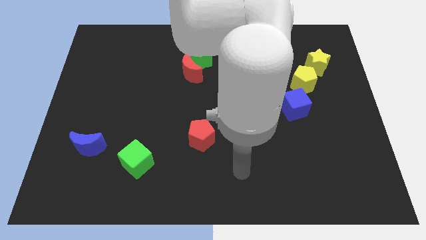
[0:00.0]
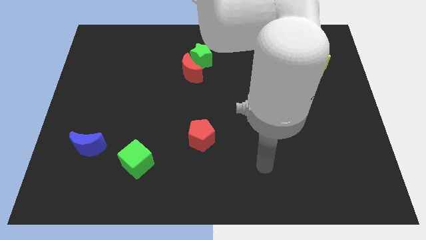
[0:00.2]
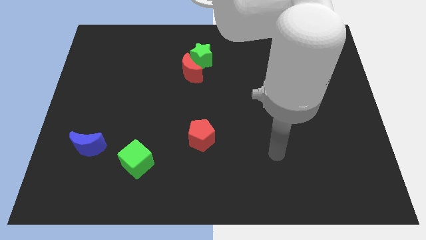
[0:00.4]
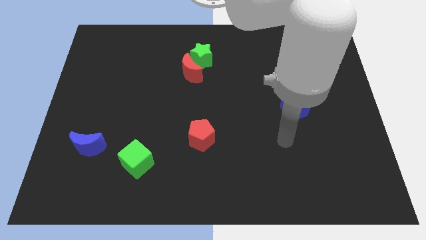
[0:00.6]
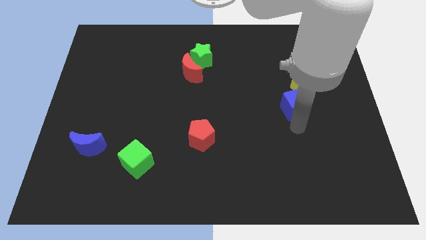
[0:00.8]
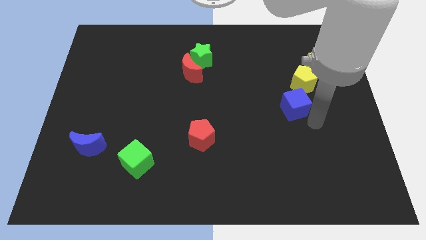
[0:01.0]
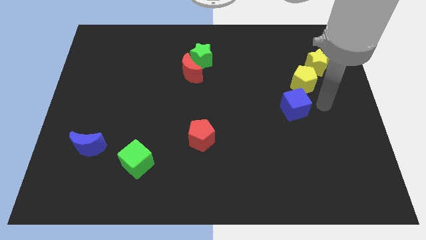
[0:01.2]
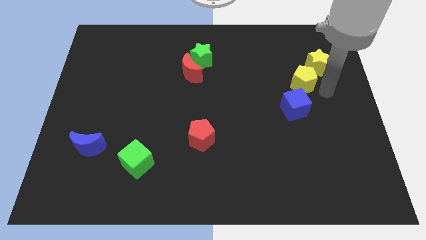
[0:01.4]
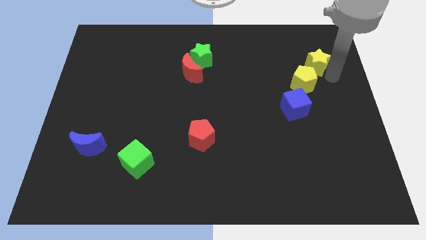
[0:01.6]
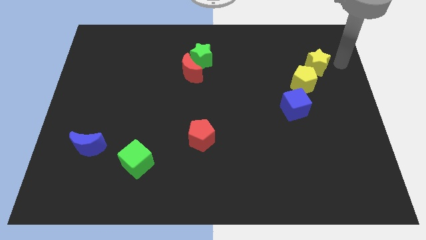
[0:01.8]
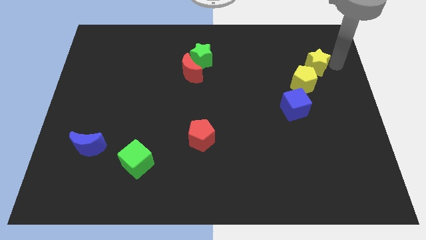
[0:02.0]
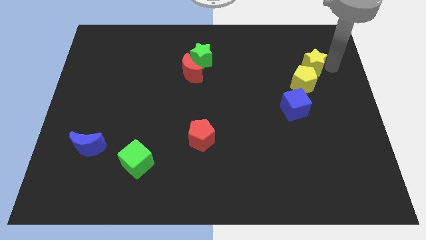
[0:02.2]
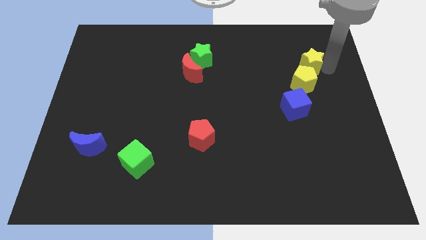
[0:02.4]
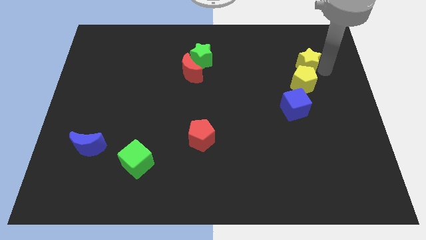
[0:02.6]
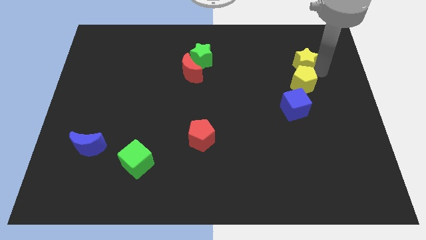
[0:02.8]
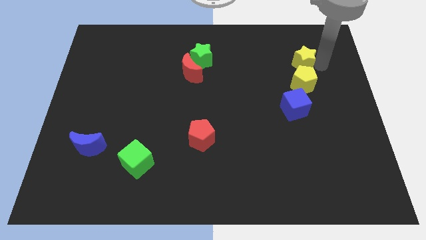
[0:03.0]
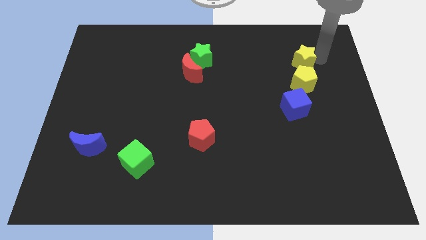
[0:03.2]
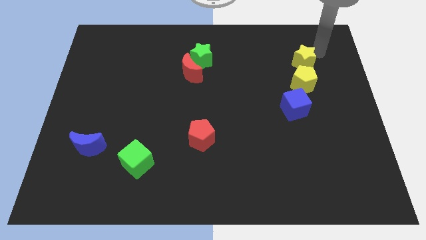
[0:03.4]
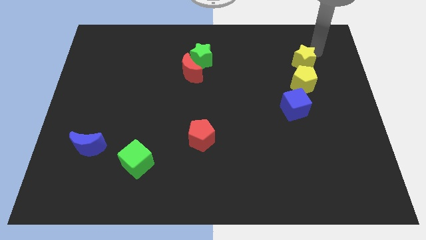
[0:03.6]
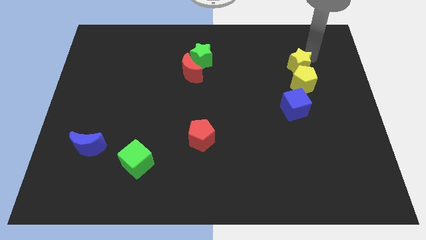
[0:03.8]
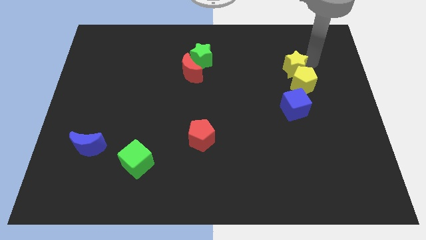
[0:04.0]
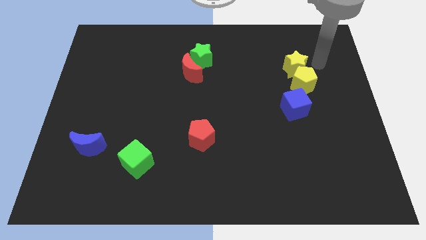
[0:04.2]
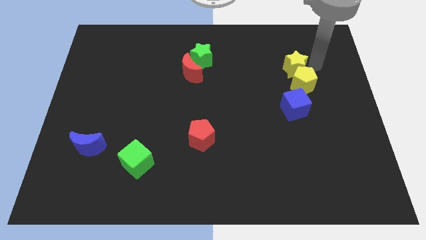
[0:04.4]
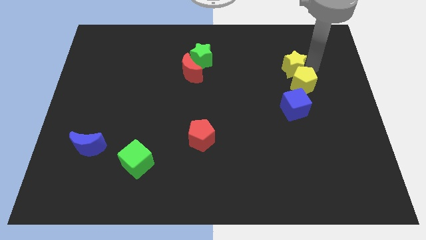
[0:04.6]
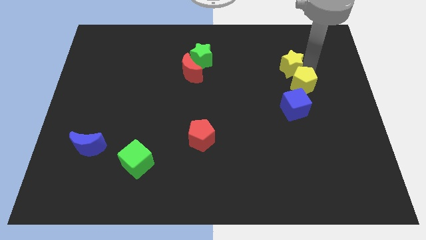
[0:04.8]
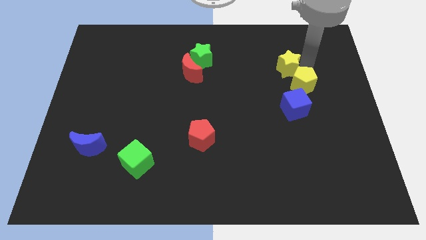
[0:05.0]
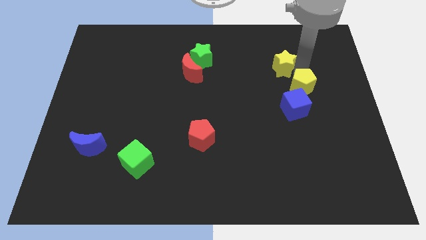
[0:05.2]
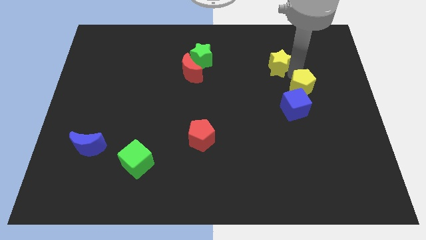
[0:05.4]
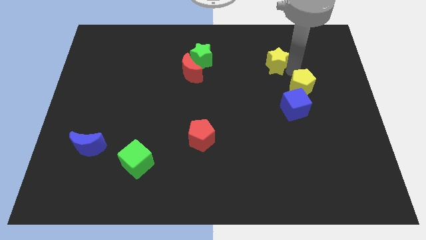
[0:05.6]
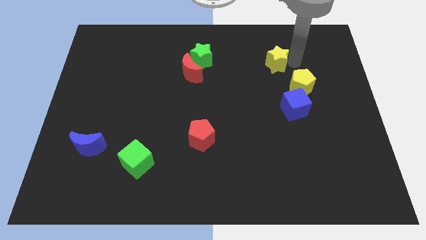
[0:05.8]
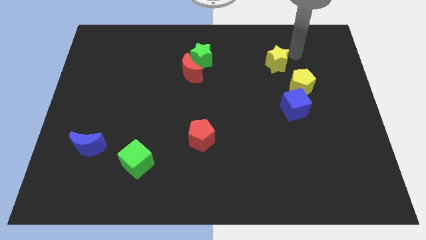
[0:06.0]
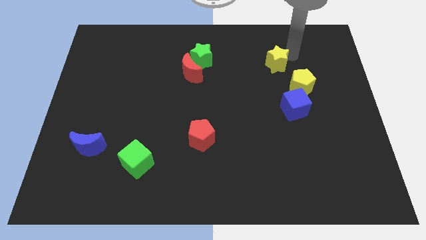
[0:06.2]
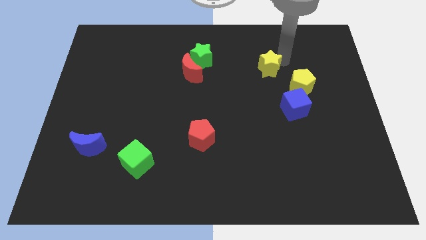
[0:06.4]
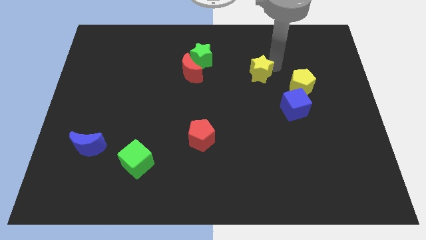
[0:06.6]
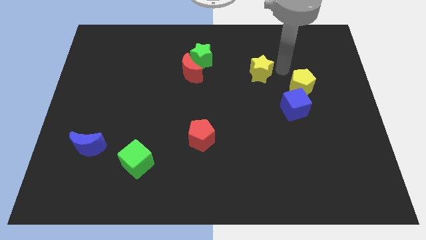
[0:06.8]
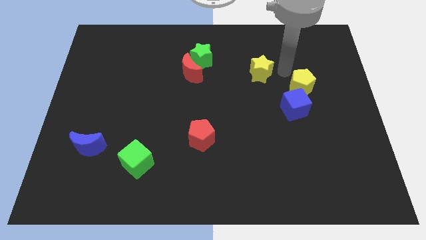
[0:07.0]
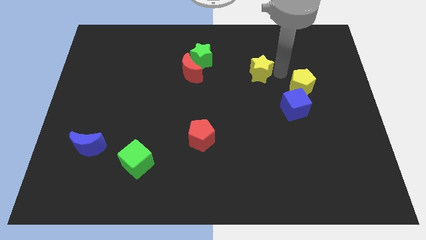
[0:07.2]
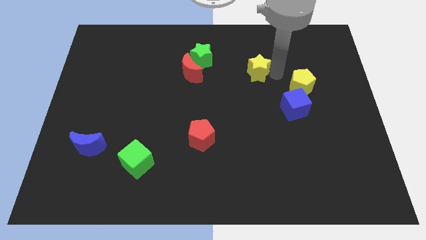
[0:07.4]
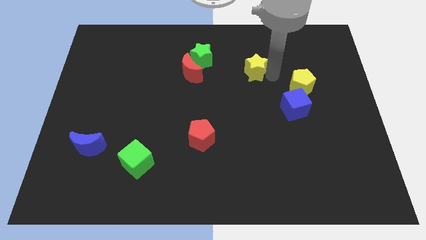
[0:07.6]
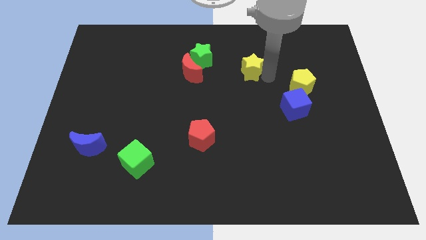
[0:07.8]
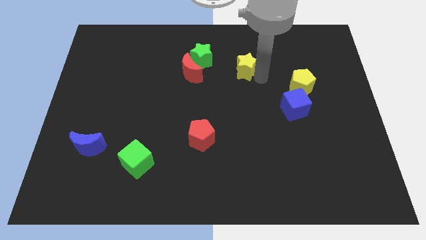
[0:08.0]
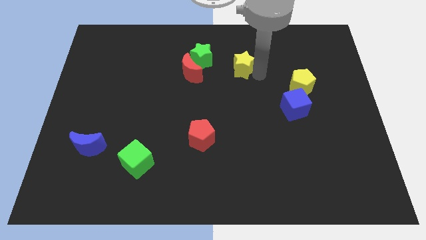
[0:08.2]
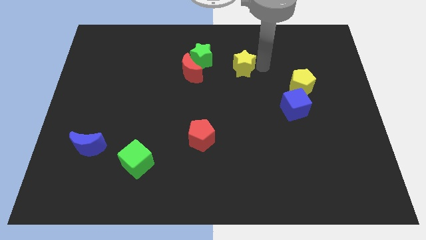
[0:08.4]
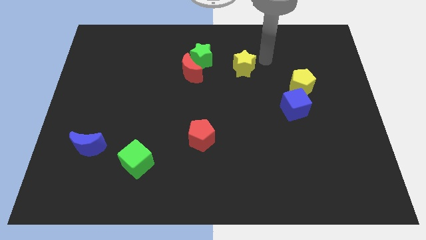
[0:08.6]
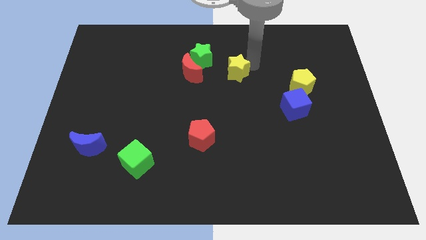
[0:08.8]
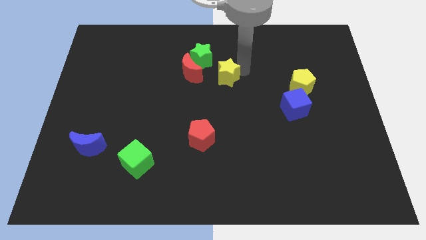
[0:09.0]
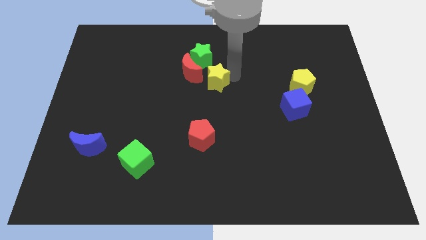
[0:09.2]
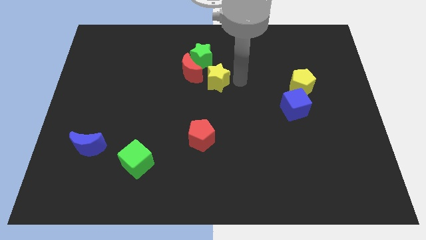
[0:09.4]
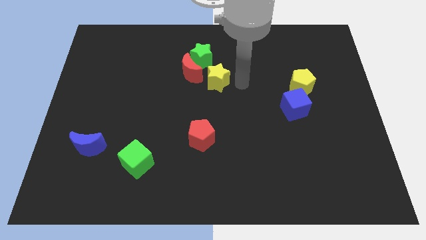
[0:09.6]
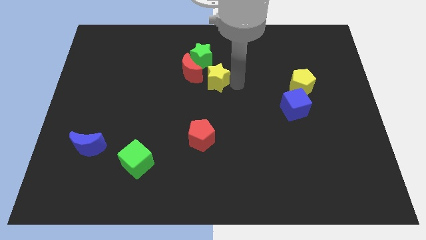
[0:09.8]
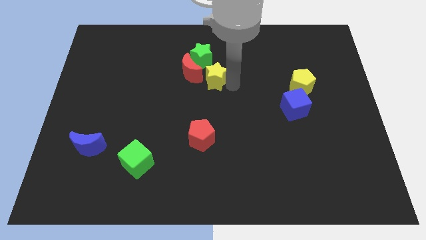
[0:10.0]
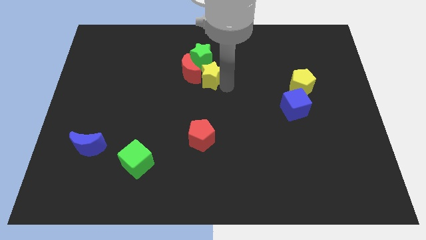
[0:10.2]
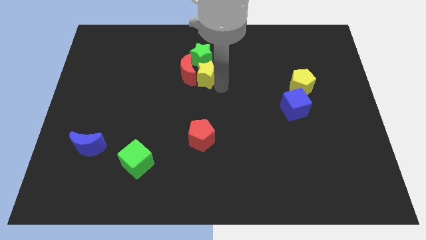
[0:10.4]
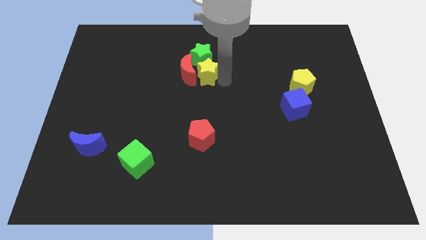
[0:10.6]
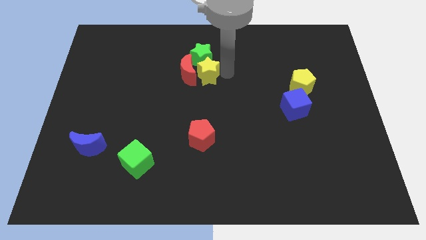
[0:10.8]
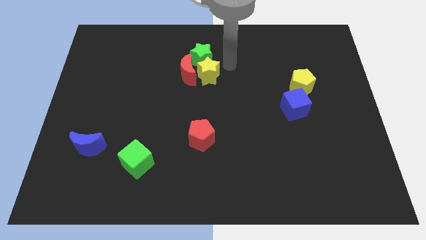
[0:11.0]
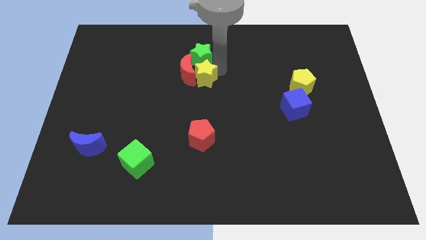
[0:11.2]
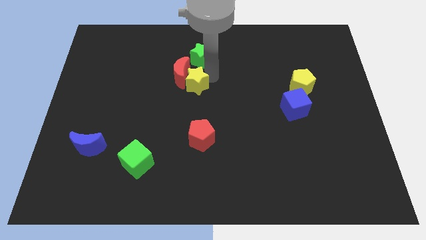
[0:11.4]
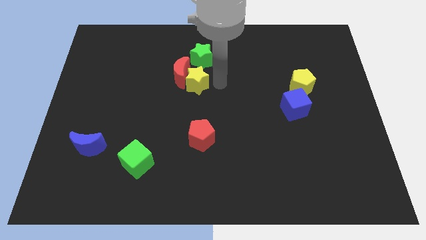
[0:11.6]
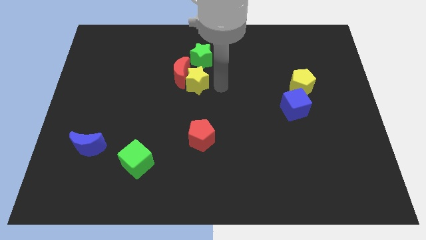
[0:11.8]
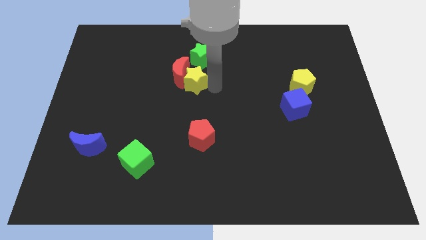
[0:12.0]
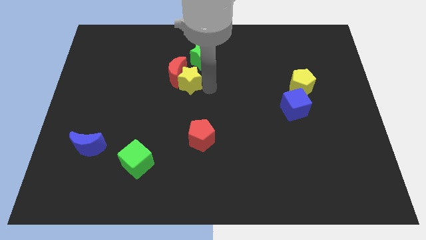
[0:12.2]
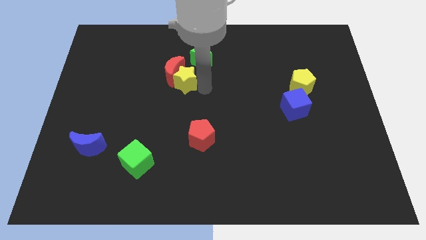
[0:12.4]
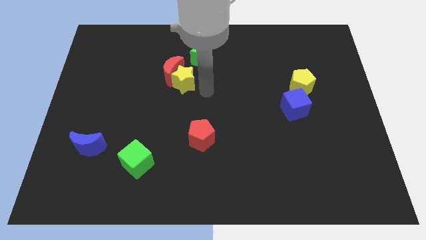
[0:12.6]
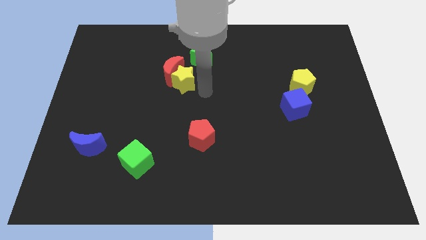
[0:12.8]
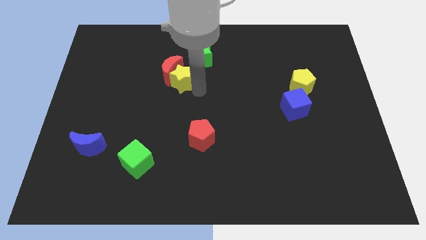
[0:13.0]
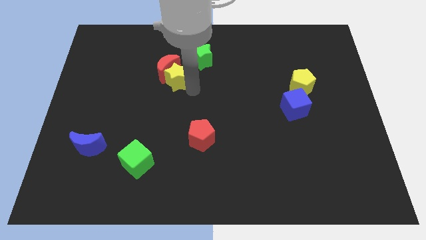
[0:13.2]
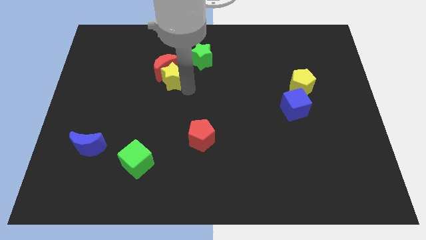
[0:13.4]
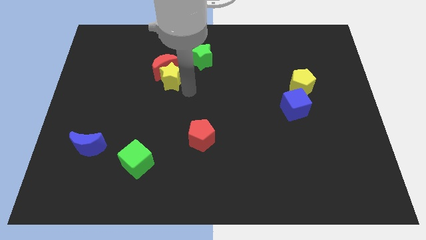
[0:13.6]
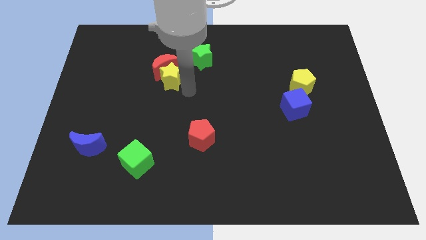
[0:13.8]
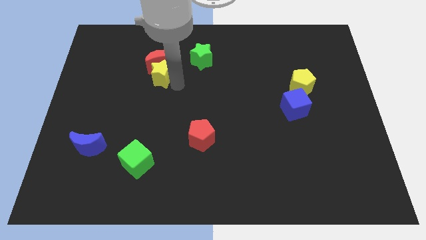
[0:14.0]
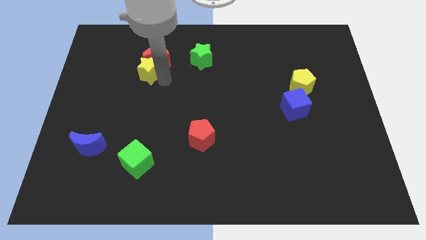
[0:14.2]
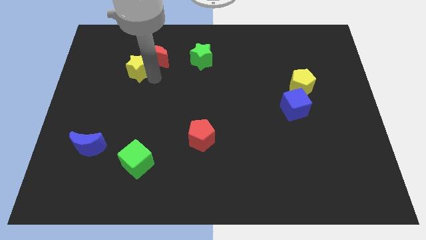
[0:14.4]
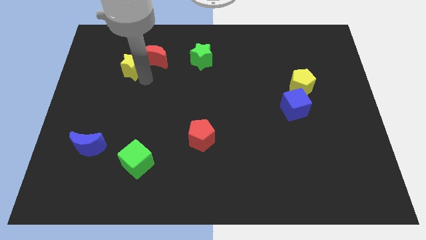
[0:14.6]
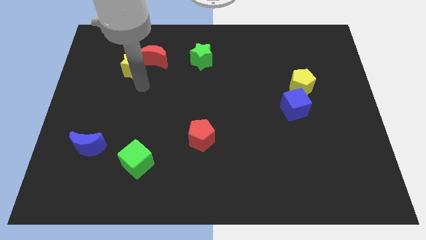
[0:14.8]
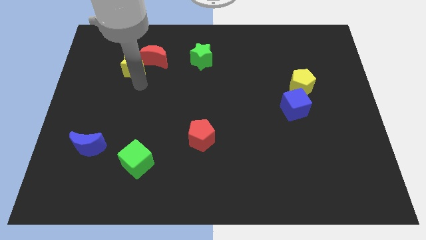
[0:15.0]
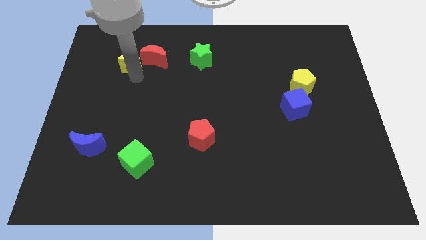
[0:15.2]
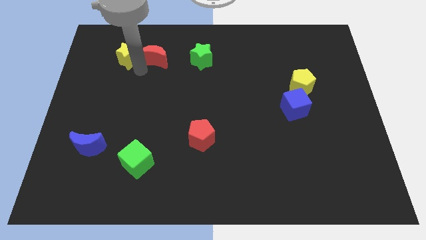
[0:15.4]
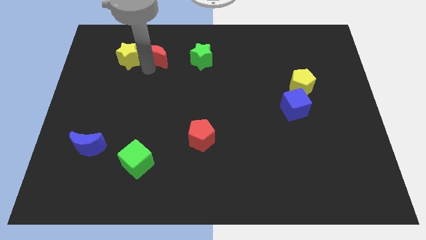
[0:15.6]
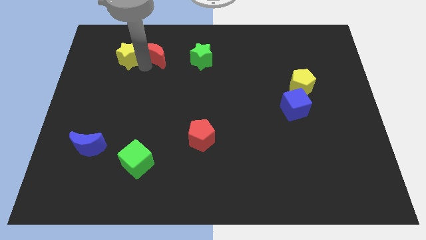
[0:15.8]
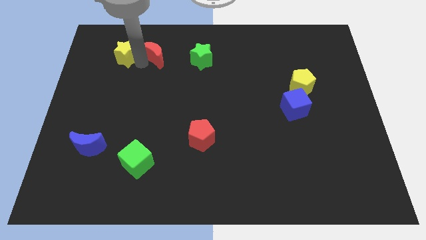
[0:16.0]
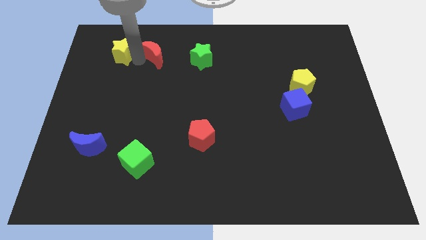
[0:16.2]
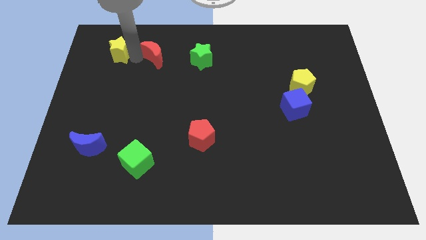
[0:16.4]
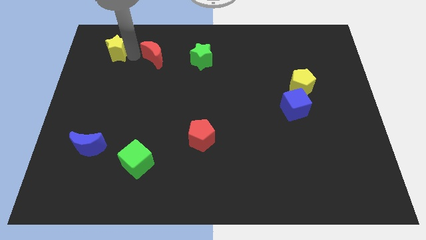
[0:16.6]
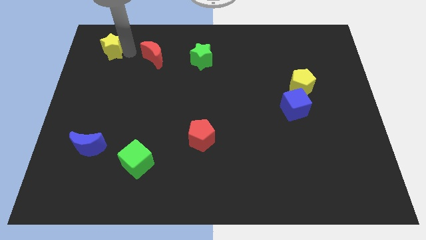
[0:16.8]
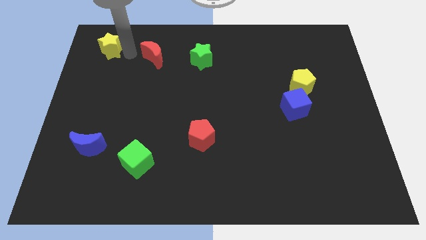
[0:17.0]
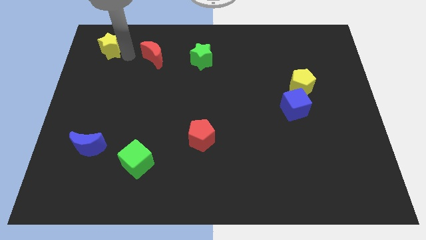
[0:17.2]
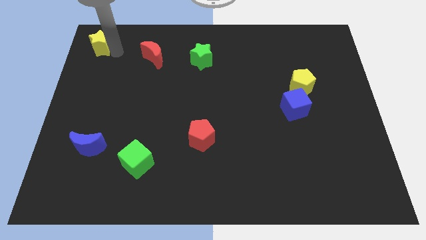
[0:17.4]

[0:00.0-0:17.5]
push the yellow star to the top left
